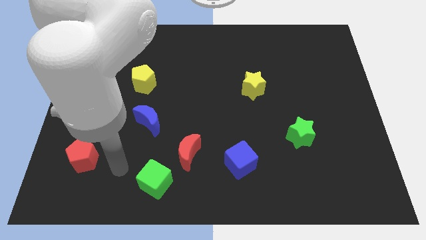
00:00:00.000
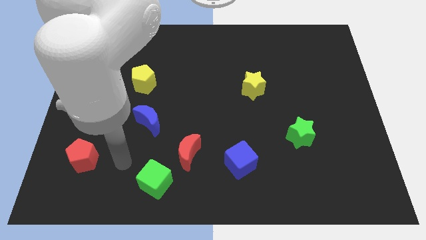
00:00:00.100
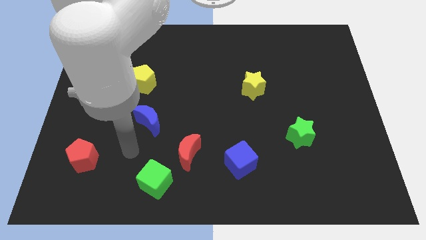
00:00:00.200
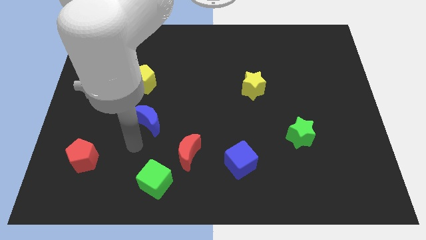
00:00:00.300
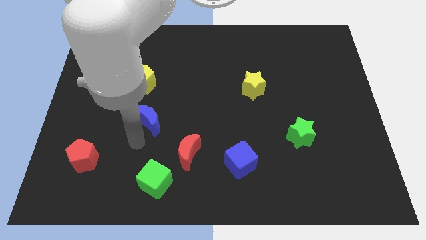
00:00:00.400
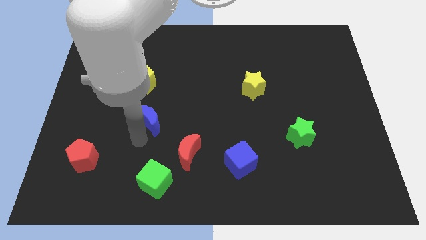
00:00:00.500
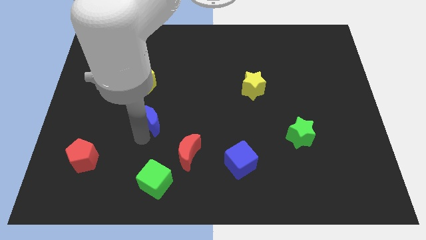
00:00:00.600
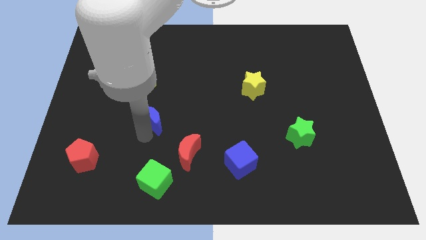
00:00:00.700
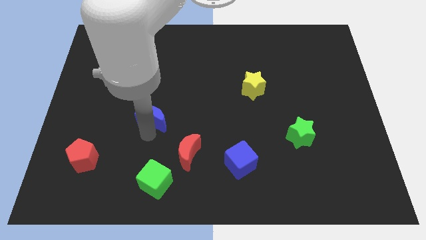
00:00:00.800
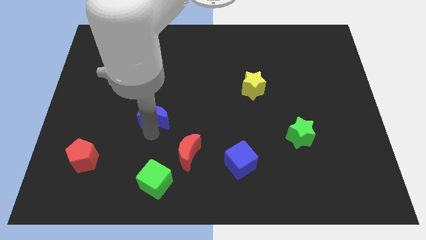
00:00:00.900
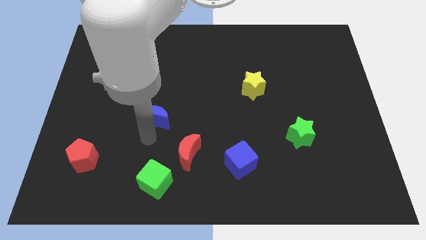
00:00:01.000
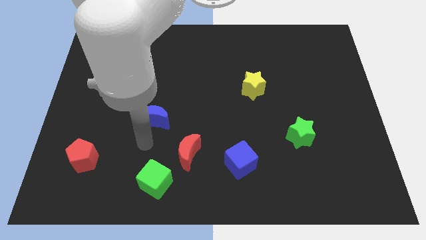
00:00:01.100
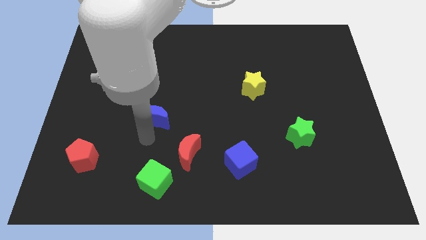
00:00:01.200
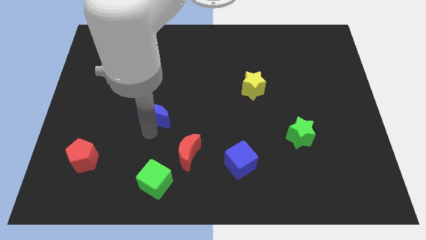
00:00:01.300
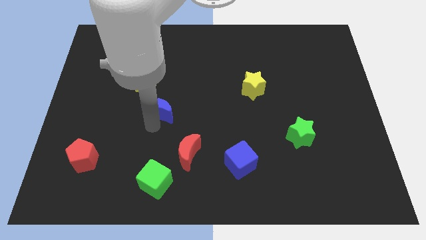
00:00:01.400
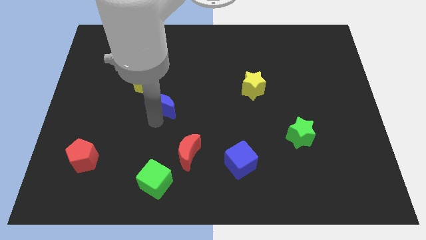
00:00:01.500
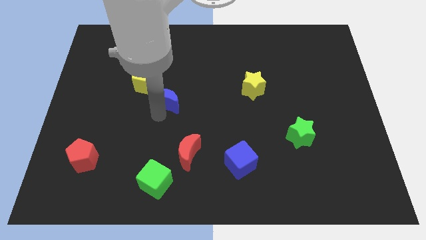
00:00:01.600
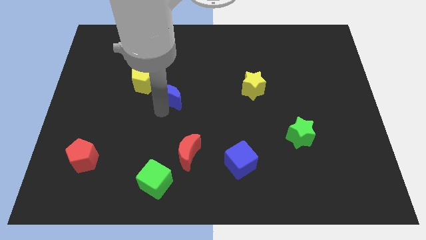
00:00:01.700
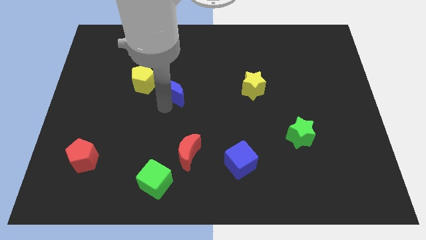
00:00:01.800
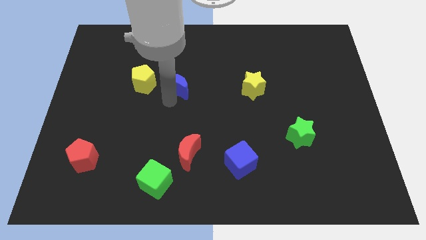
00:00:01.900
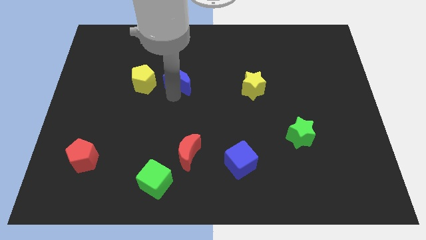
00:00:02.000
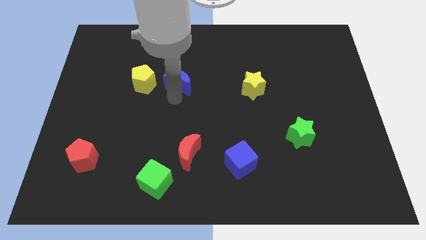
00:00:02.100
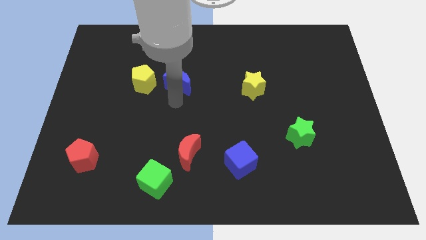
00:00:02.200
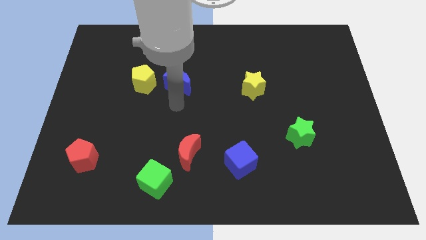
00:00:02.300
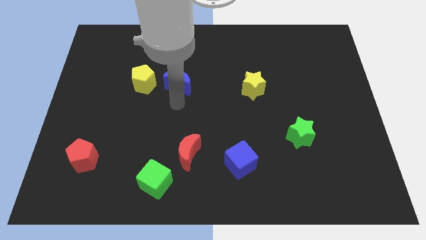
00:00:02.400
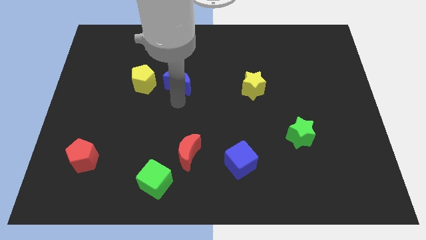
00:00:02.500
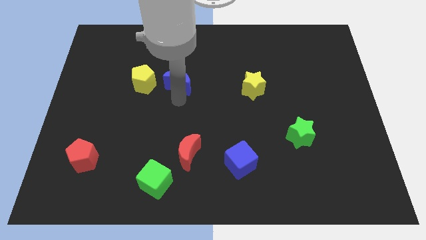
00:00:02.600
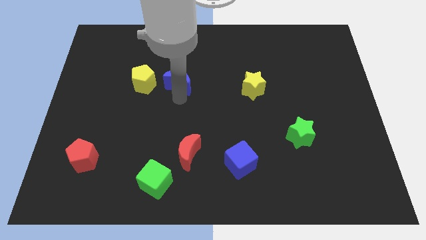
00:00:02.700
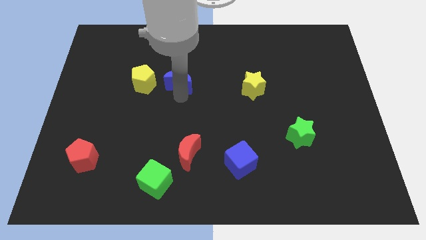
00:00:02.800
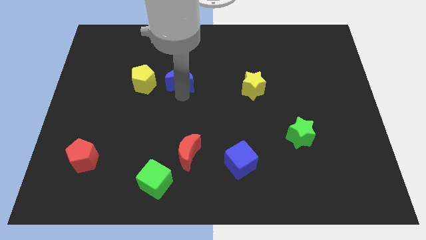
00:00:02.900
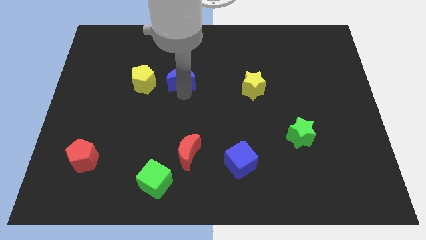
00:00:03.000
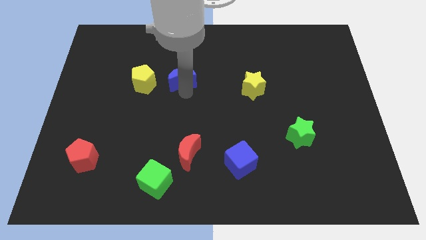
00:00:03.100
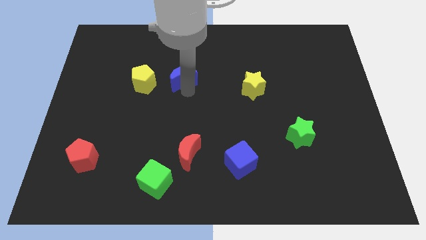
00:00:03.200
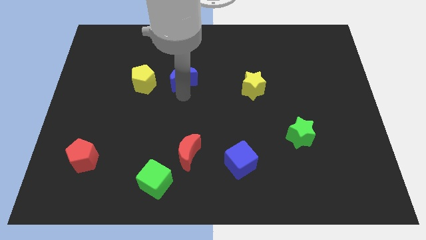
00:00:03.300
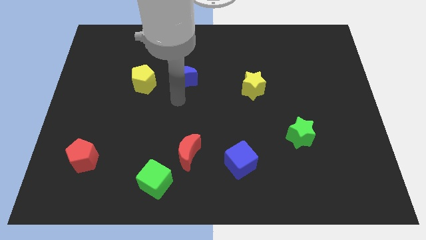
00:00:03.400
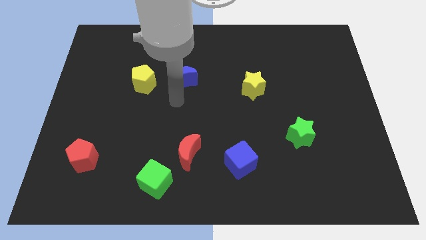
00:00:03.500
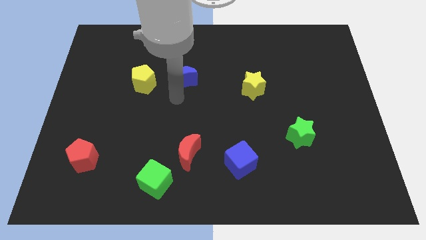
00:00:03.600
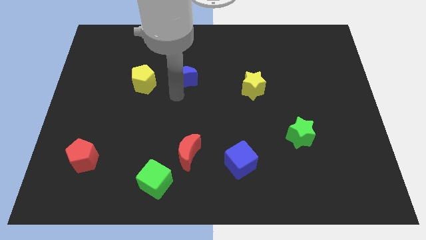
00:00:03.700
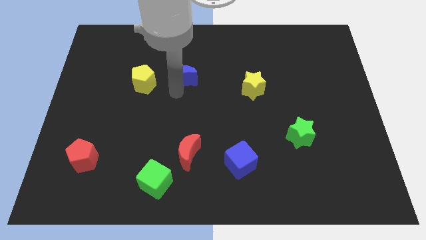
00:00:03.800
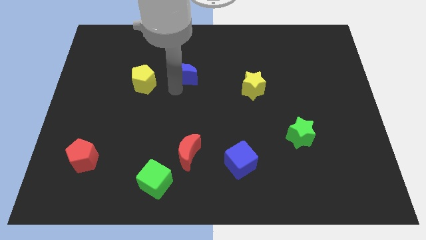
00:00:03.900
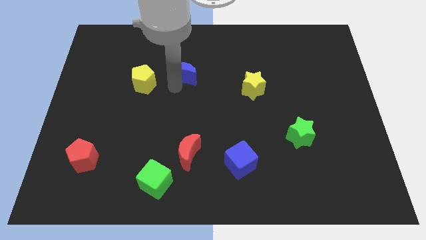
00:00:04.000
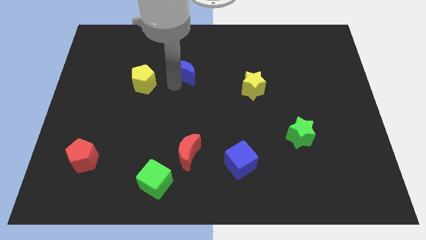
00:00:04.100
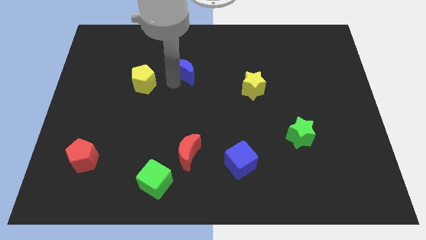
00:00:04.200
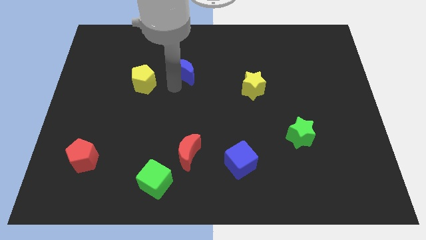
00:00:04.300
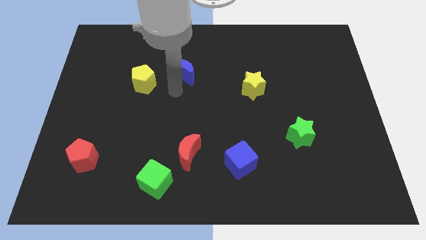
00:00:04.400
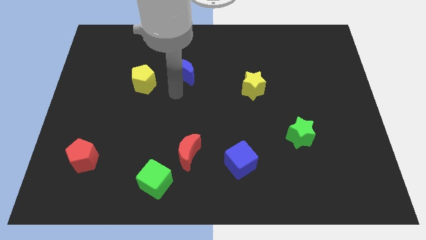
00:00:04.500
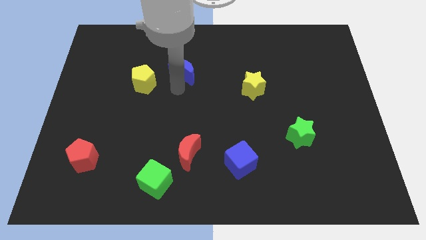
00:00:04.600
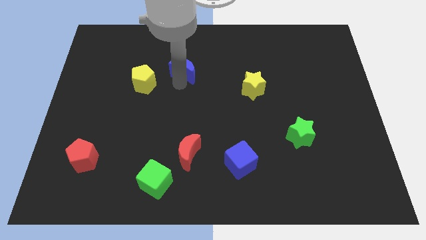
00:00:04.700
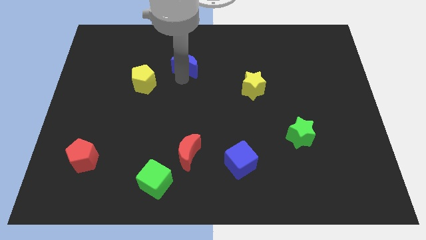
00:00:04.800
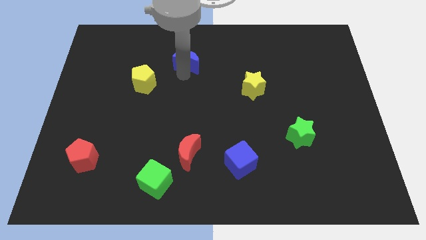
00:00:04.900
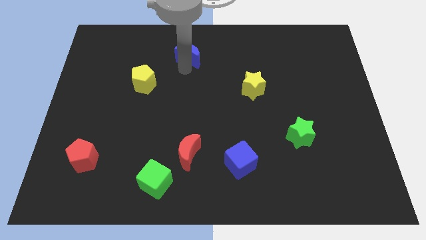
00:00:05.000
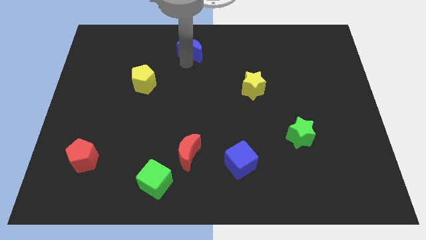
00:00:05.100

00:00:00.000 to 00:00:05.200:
move the blue moon to the towards your base

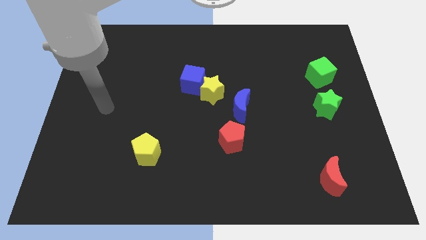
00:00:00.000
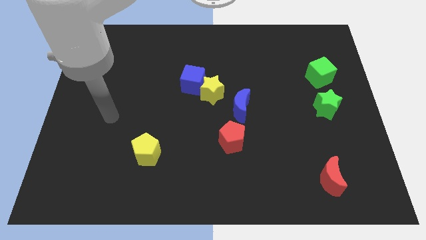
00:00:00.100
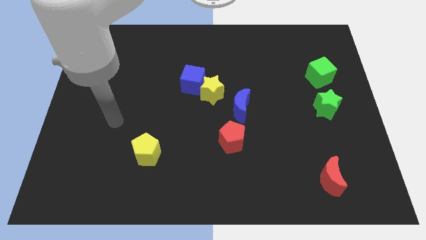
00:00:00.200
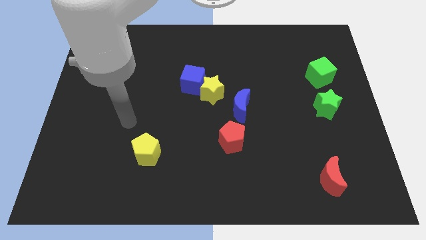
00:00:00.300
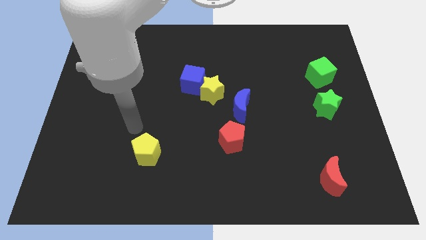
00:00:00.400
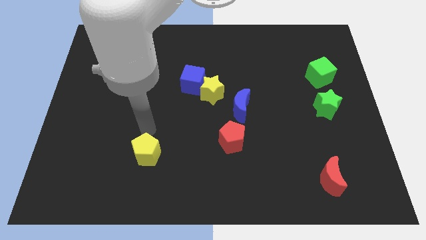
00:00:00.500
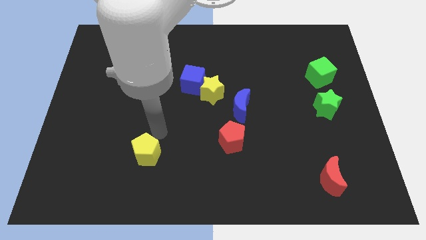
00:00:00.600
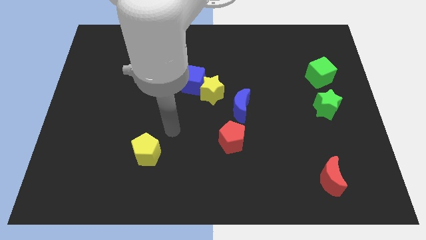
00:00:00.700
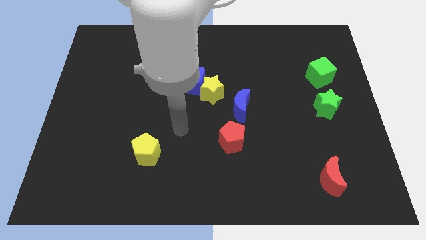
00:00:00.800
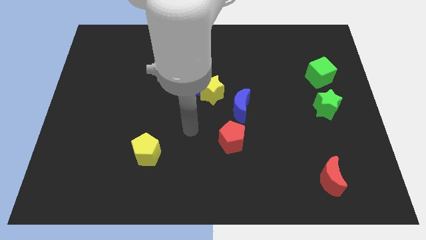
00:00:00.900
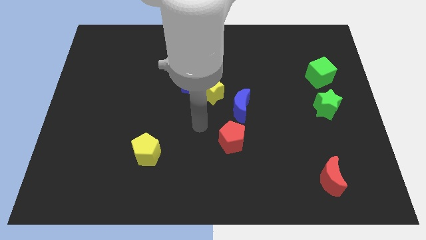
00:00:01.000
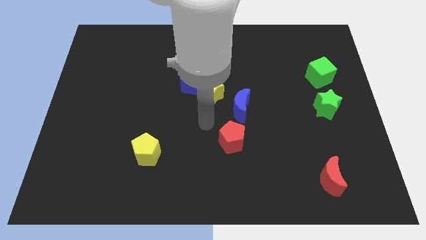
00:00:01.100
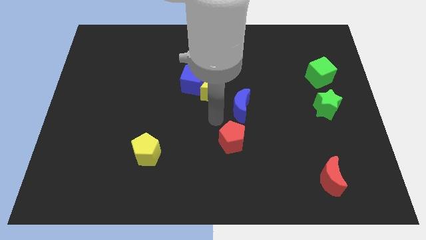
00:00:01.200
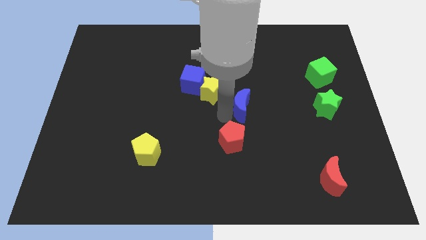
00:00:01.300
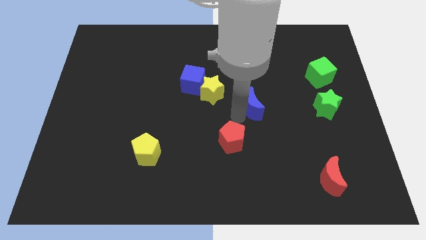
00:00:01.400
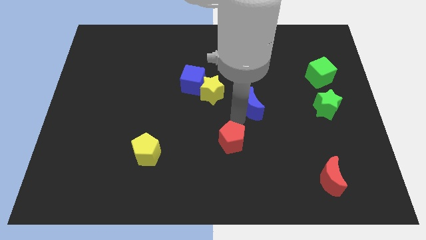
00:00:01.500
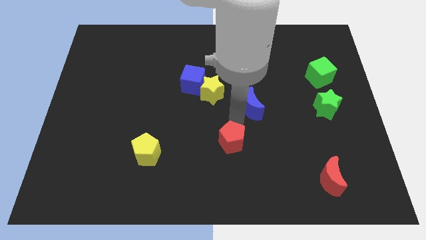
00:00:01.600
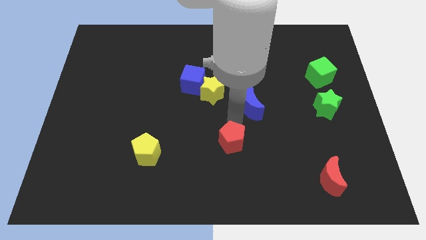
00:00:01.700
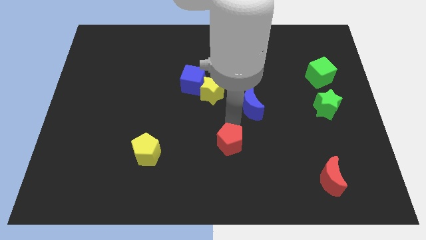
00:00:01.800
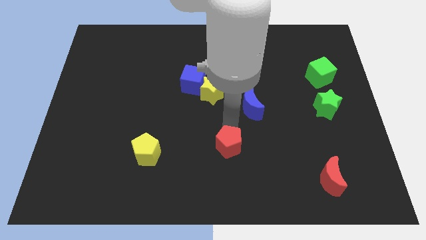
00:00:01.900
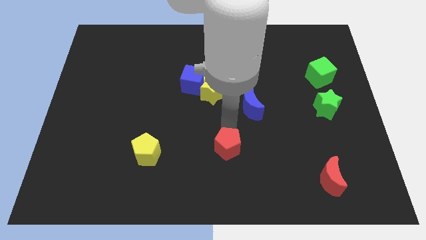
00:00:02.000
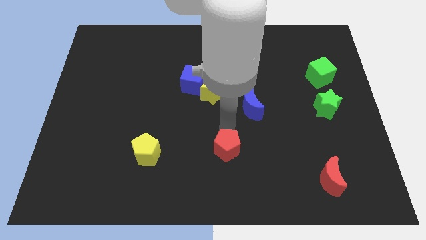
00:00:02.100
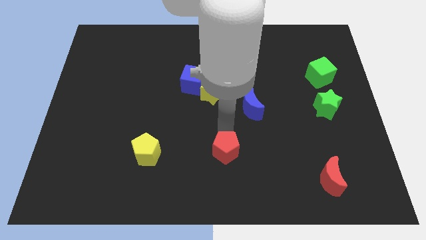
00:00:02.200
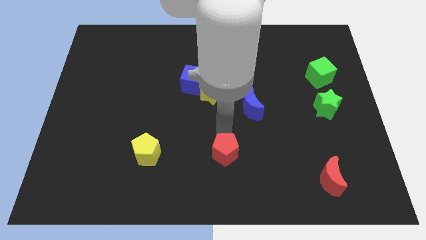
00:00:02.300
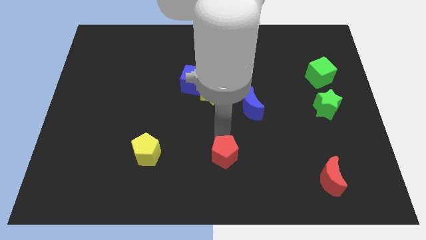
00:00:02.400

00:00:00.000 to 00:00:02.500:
move the red pentagon to the bottom
